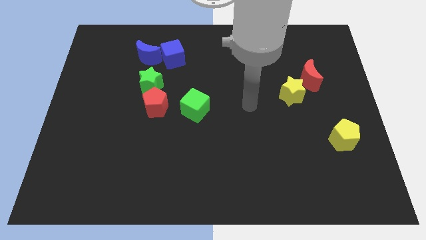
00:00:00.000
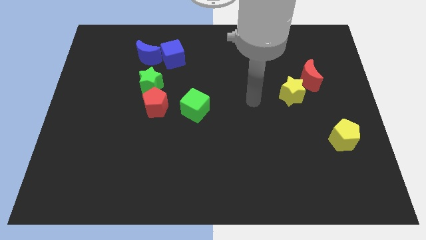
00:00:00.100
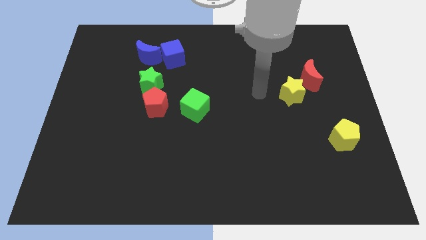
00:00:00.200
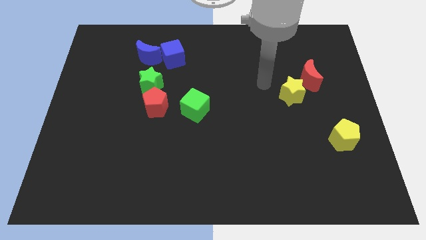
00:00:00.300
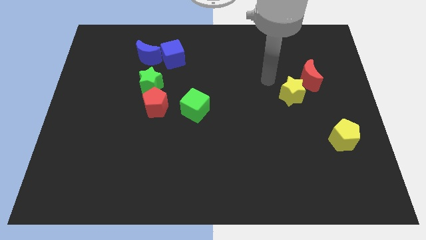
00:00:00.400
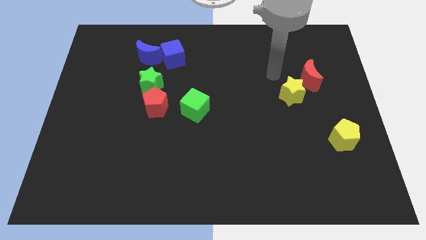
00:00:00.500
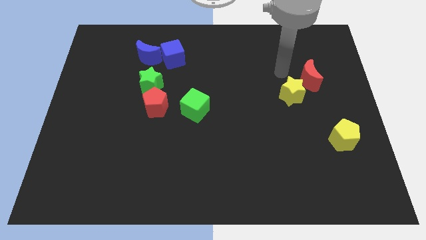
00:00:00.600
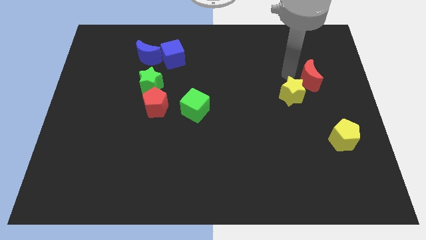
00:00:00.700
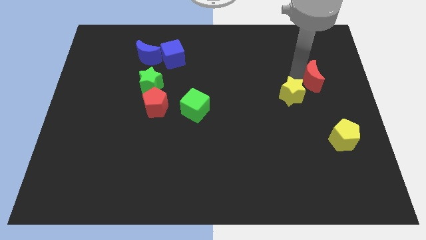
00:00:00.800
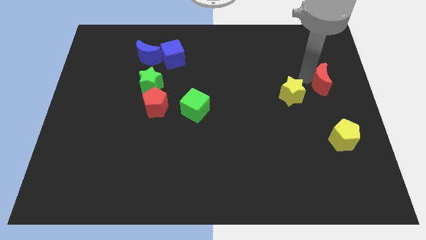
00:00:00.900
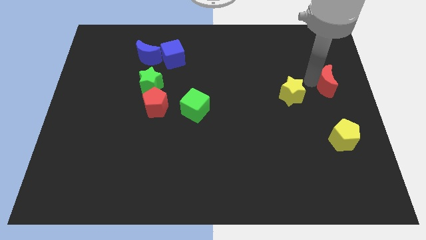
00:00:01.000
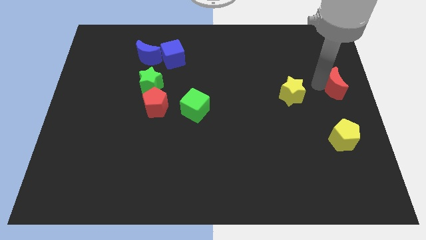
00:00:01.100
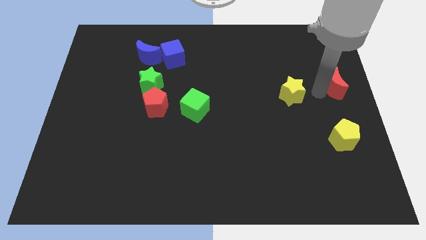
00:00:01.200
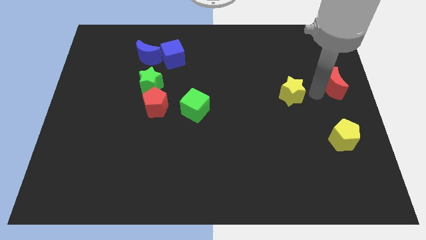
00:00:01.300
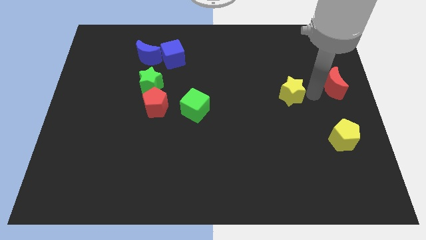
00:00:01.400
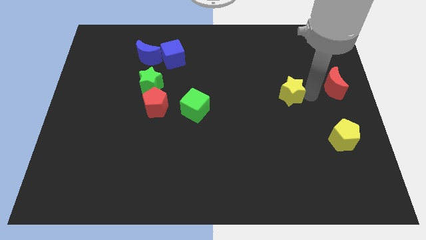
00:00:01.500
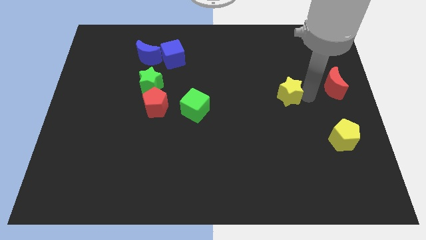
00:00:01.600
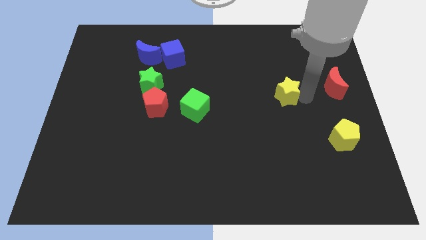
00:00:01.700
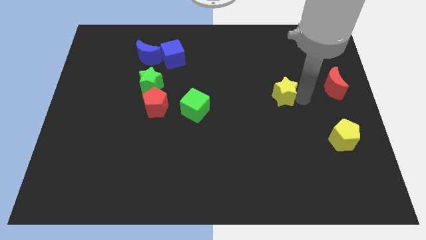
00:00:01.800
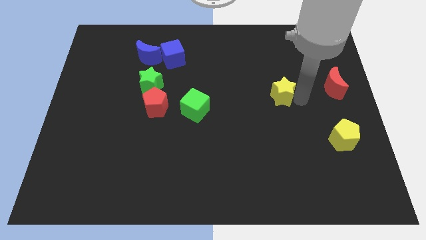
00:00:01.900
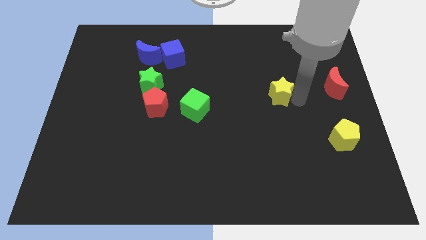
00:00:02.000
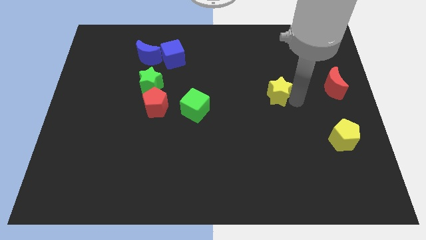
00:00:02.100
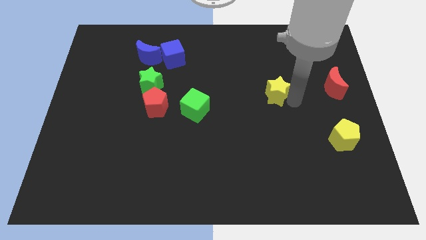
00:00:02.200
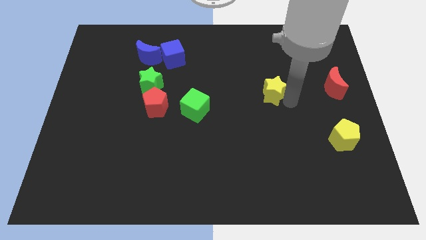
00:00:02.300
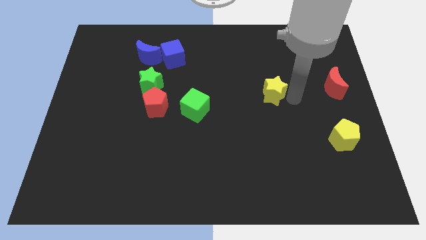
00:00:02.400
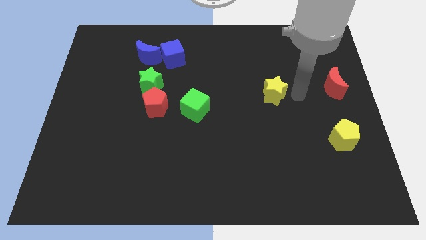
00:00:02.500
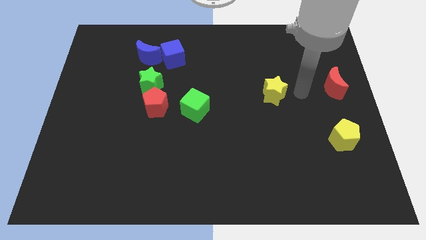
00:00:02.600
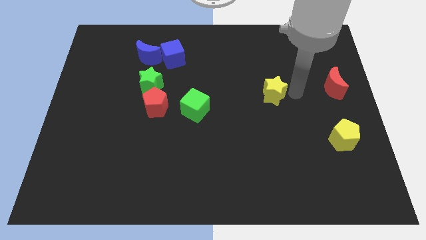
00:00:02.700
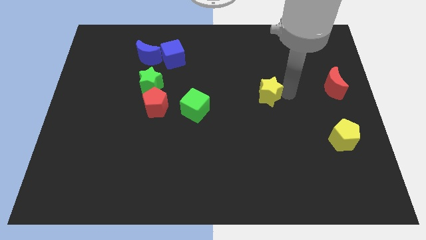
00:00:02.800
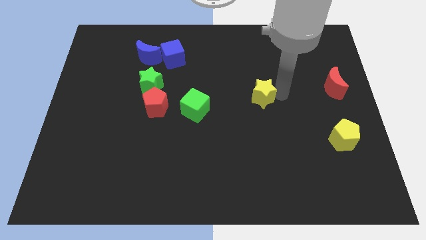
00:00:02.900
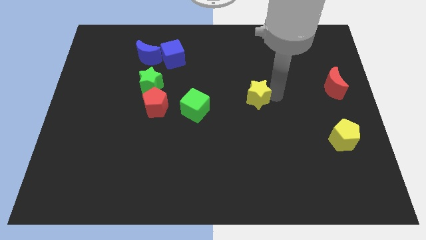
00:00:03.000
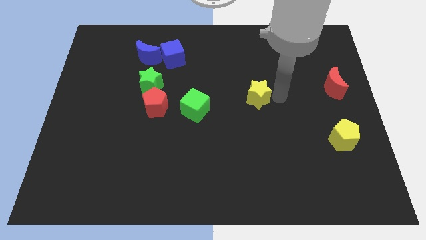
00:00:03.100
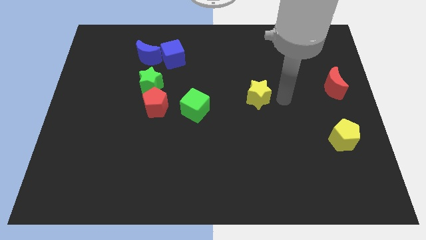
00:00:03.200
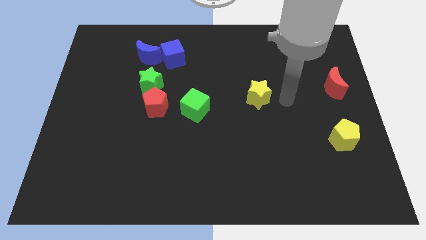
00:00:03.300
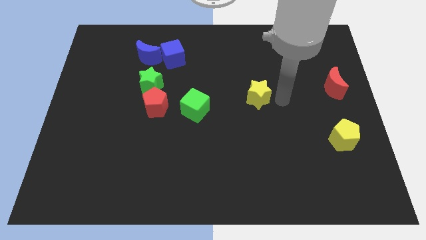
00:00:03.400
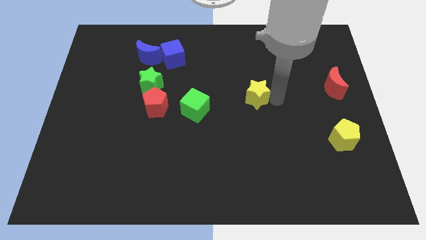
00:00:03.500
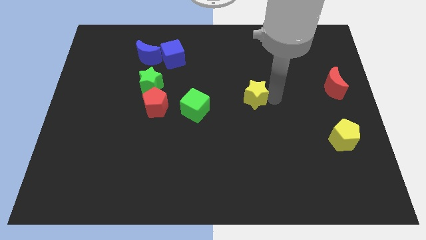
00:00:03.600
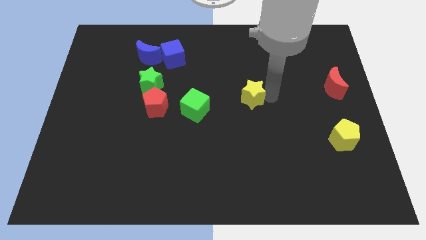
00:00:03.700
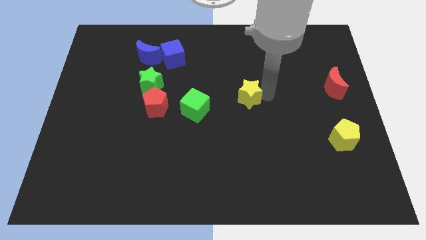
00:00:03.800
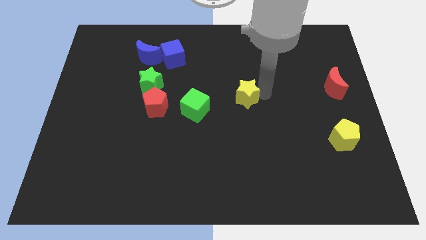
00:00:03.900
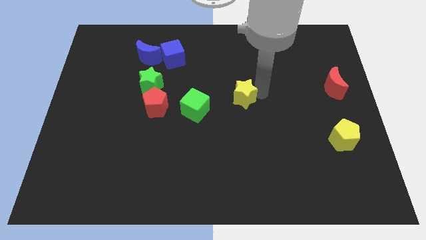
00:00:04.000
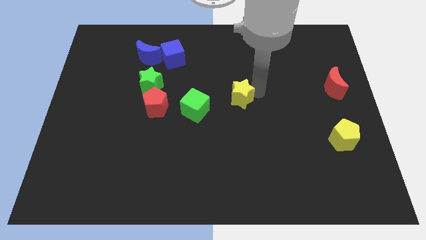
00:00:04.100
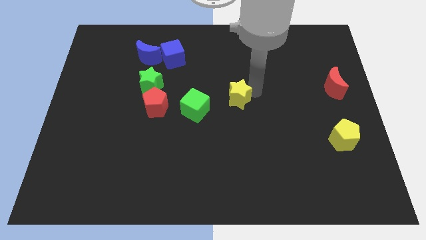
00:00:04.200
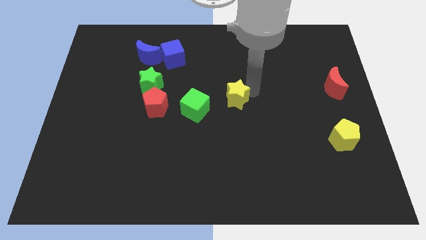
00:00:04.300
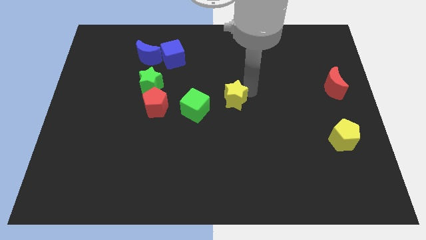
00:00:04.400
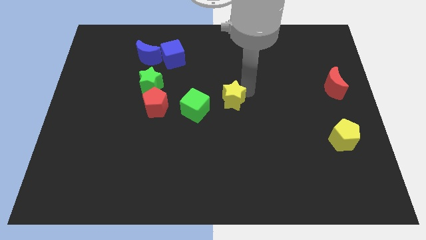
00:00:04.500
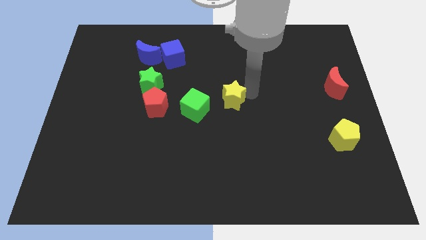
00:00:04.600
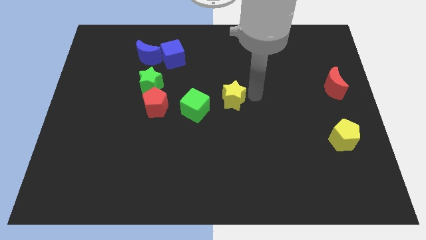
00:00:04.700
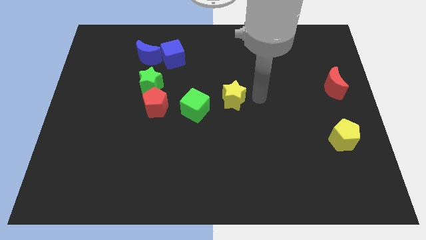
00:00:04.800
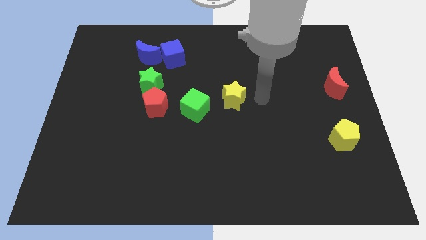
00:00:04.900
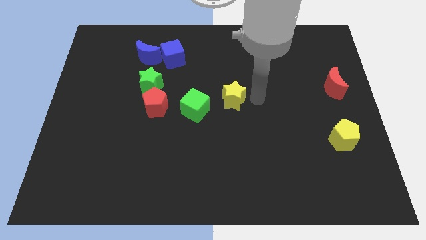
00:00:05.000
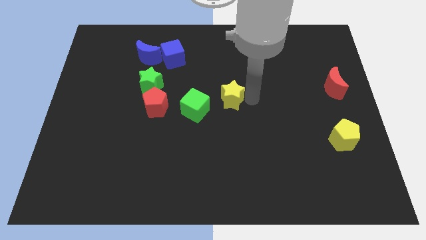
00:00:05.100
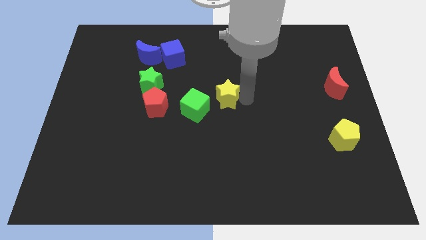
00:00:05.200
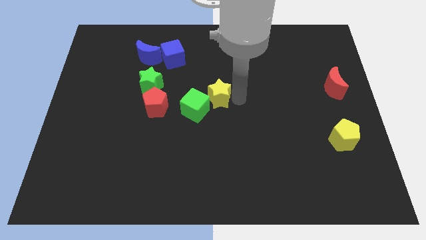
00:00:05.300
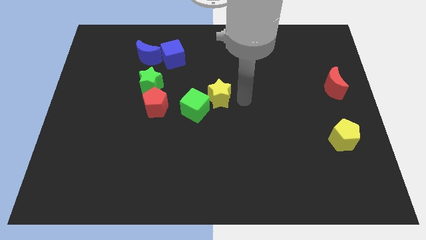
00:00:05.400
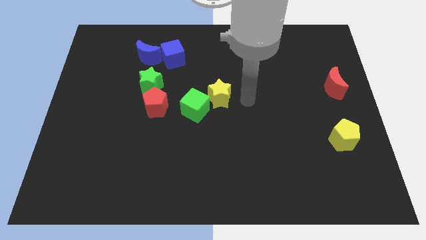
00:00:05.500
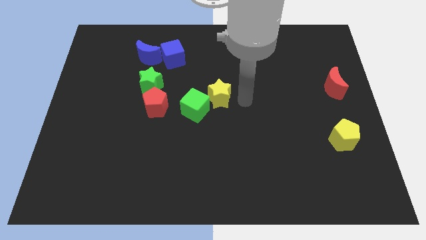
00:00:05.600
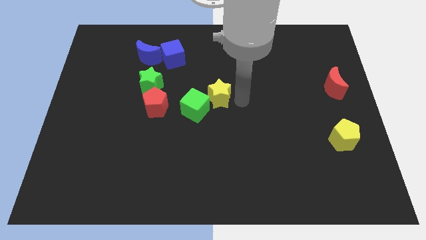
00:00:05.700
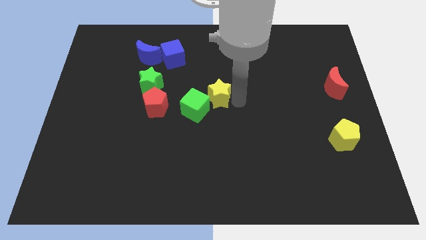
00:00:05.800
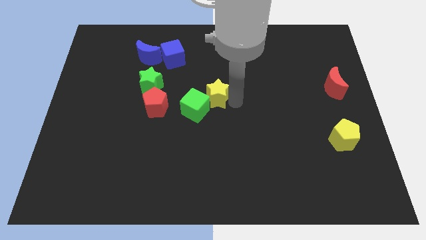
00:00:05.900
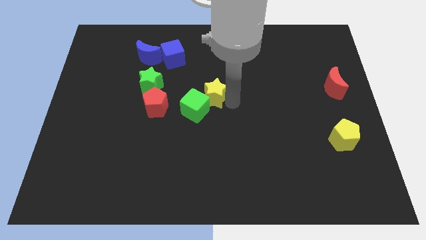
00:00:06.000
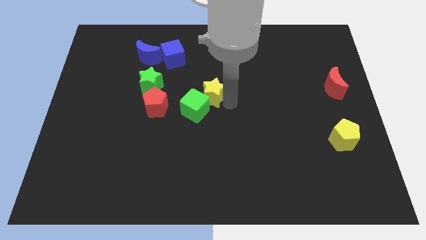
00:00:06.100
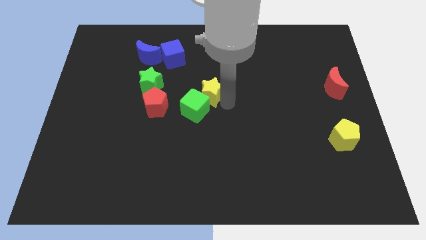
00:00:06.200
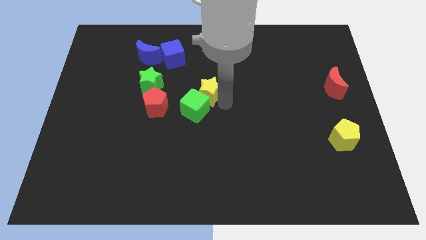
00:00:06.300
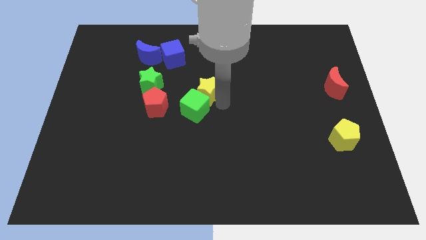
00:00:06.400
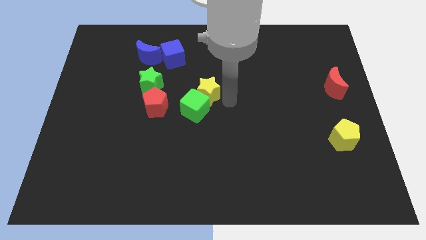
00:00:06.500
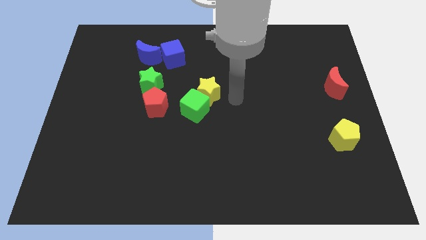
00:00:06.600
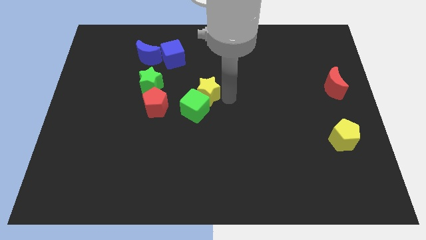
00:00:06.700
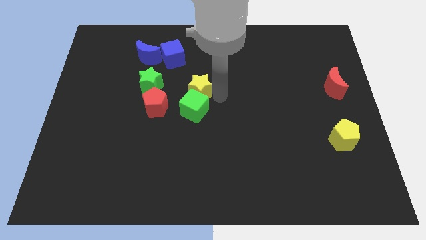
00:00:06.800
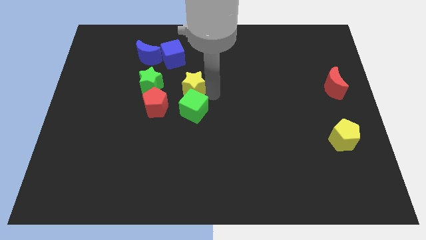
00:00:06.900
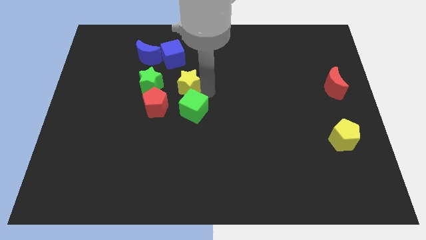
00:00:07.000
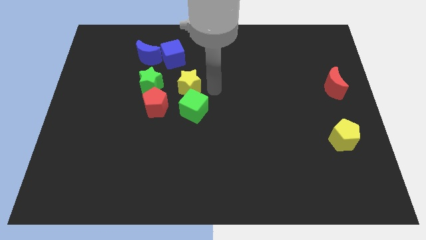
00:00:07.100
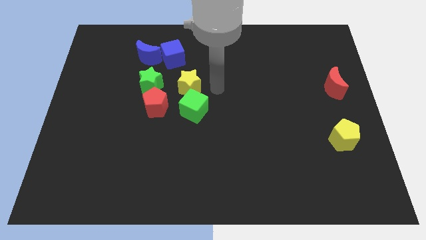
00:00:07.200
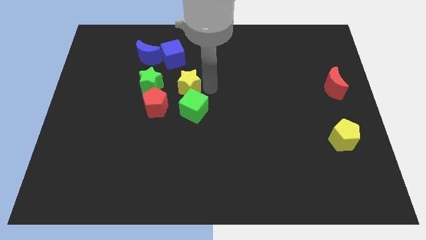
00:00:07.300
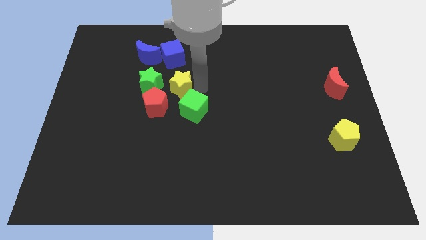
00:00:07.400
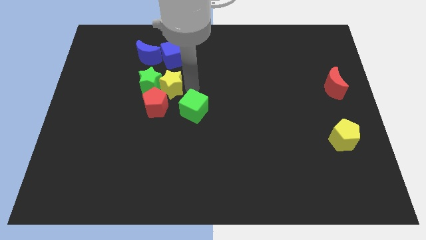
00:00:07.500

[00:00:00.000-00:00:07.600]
put the yellow star next to the green star
